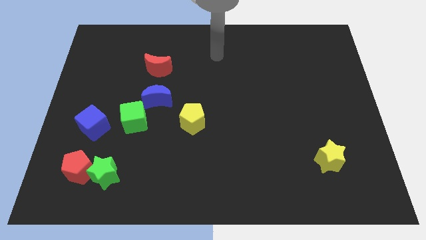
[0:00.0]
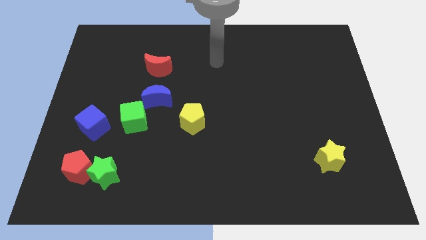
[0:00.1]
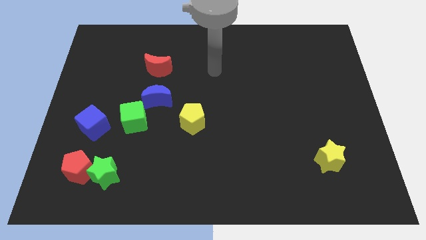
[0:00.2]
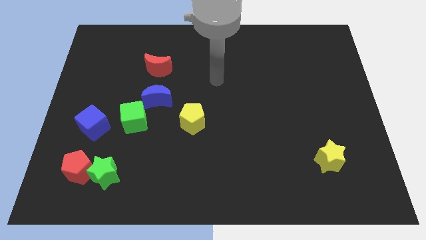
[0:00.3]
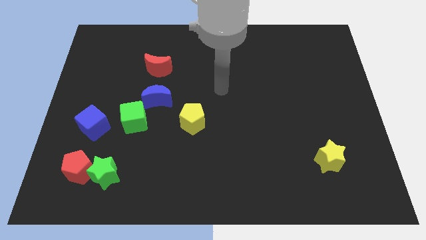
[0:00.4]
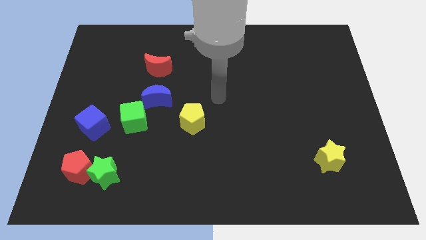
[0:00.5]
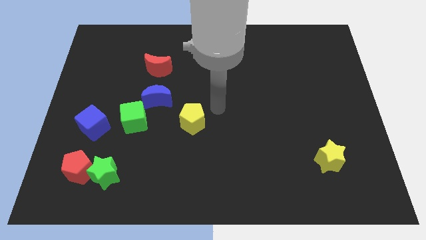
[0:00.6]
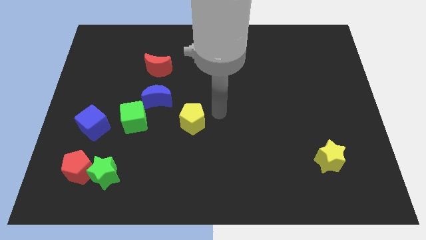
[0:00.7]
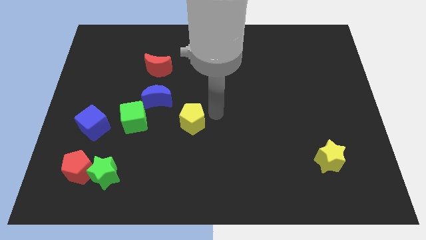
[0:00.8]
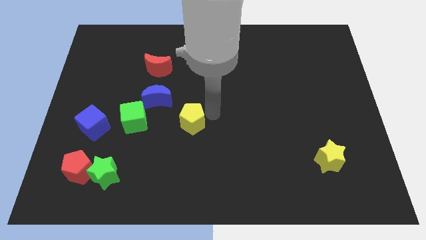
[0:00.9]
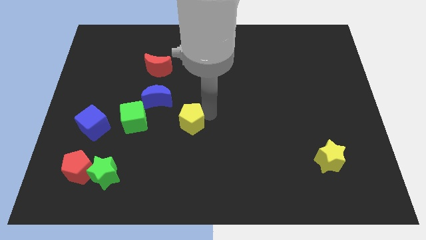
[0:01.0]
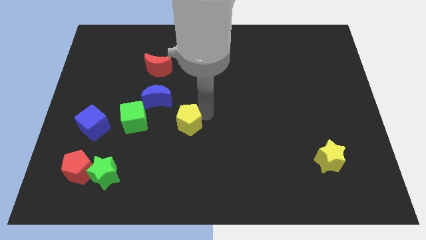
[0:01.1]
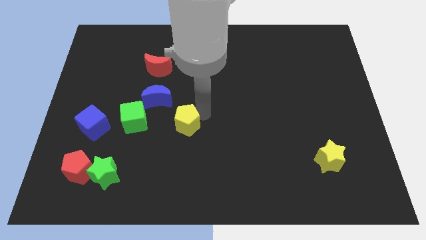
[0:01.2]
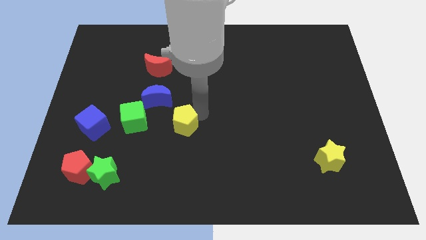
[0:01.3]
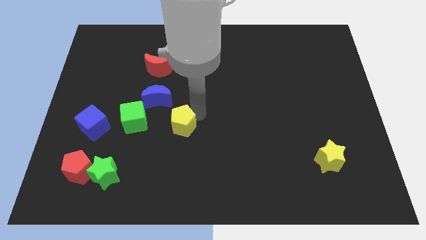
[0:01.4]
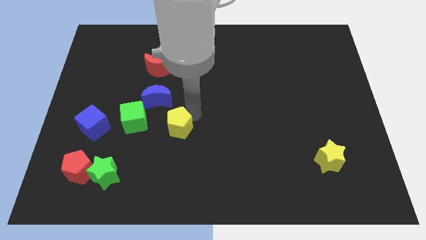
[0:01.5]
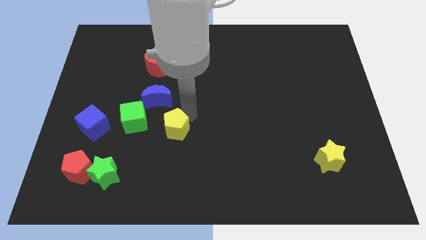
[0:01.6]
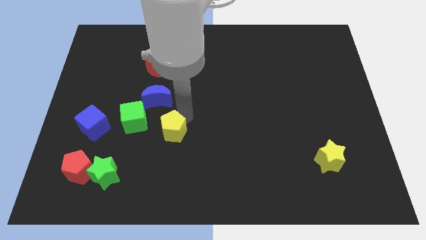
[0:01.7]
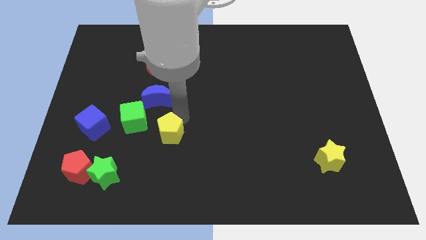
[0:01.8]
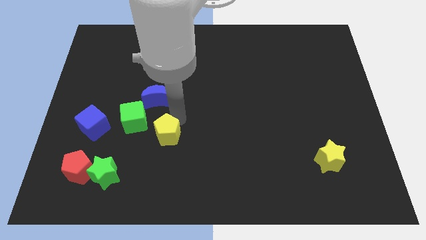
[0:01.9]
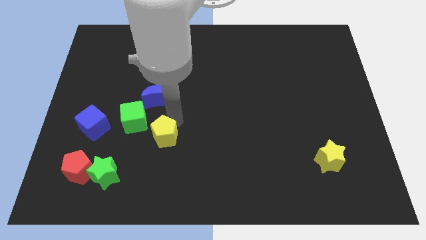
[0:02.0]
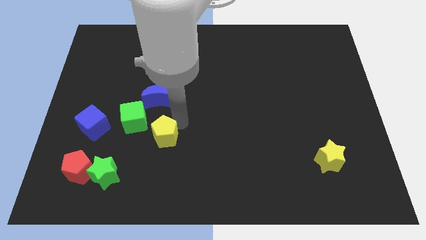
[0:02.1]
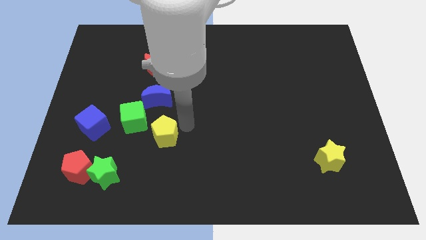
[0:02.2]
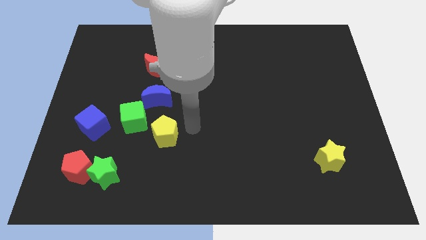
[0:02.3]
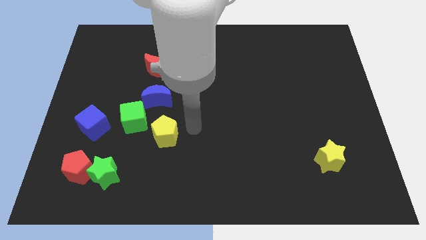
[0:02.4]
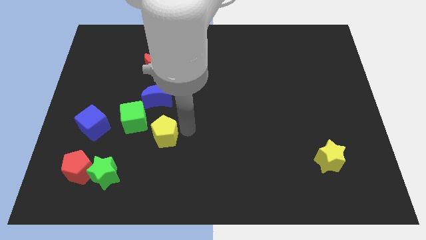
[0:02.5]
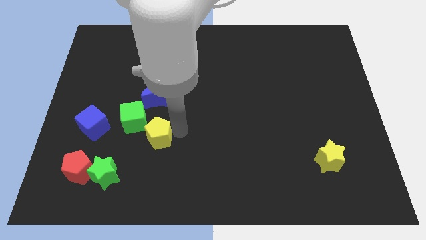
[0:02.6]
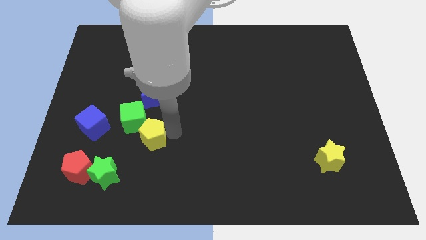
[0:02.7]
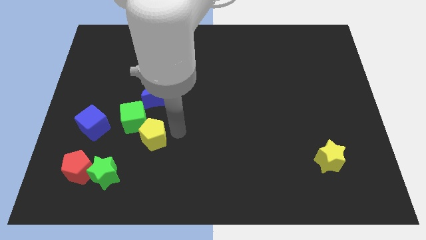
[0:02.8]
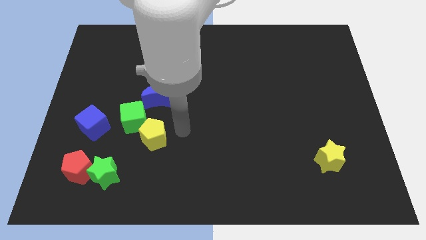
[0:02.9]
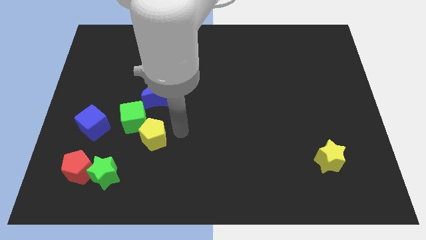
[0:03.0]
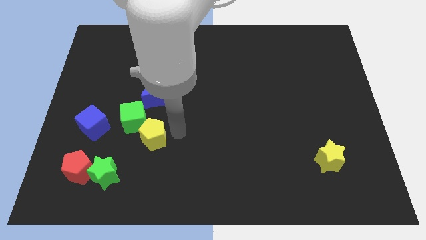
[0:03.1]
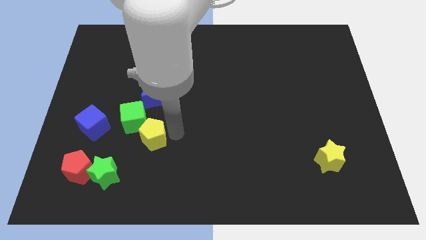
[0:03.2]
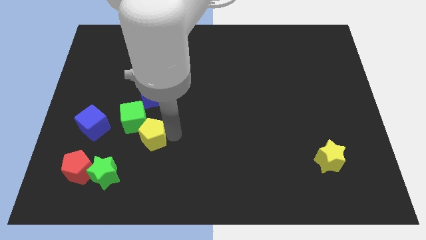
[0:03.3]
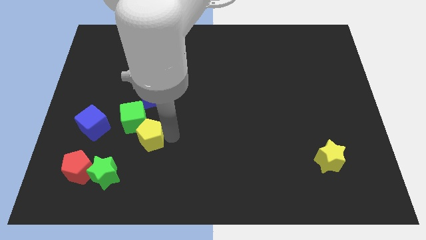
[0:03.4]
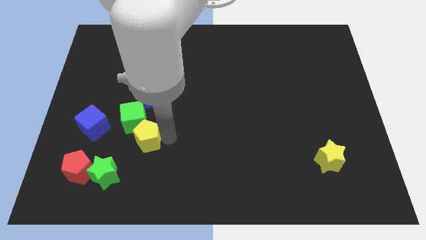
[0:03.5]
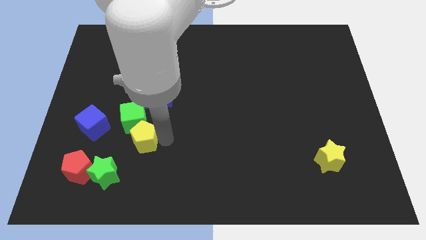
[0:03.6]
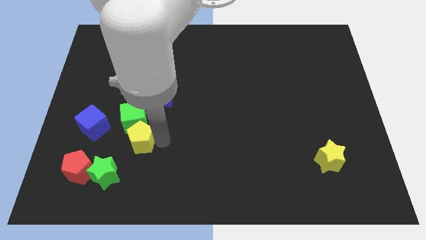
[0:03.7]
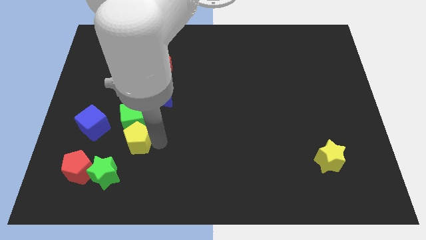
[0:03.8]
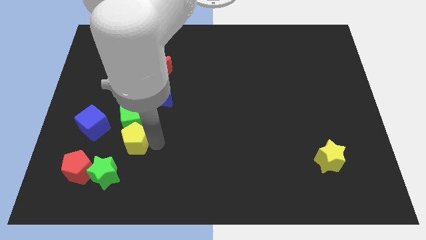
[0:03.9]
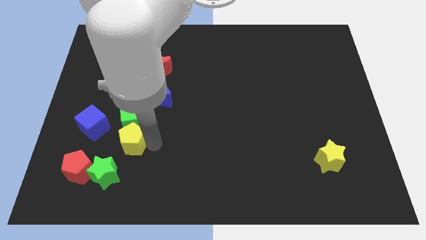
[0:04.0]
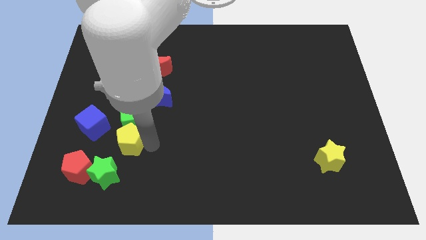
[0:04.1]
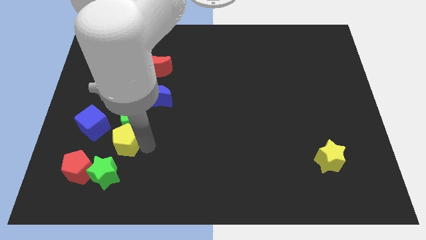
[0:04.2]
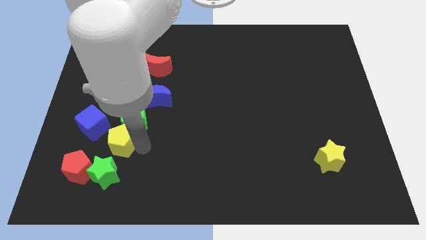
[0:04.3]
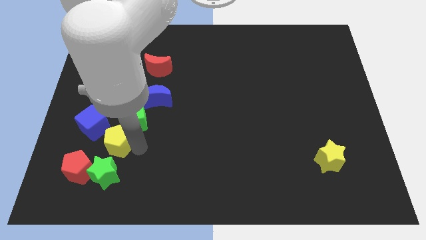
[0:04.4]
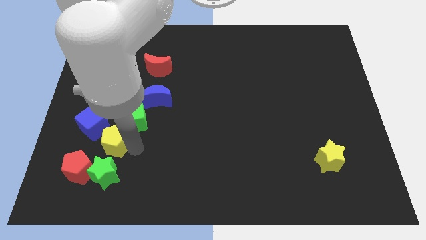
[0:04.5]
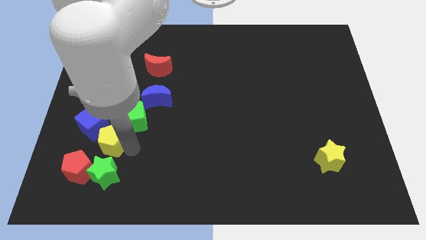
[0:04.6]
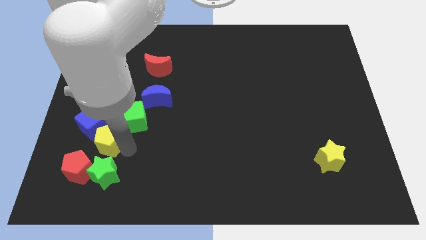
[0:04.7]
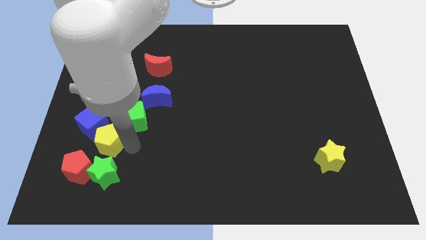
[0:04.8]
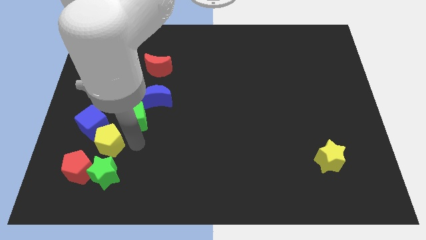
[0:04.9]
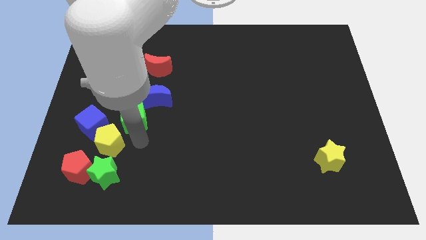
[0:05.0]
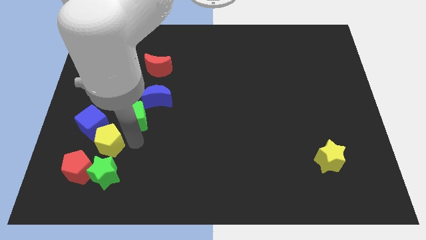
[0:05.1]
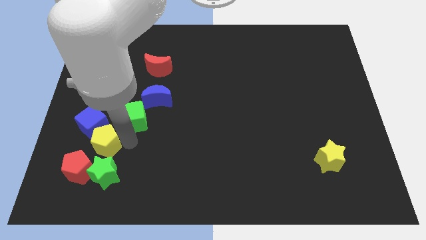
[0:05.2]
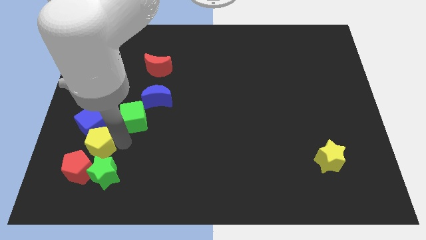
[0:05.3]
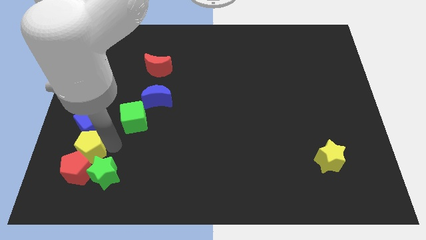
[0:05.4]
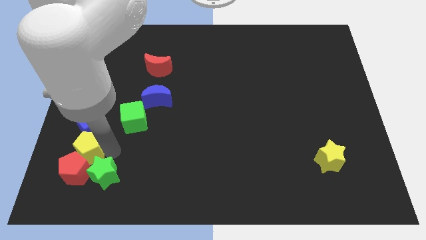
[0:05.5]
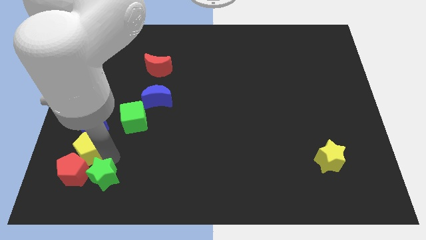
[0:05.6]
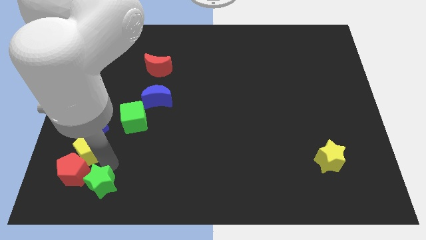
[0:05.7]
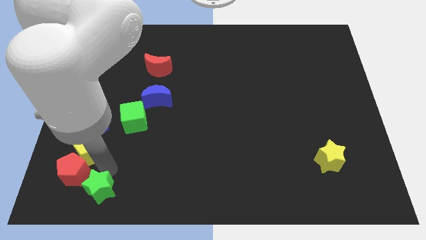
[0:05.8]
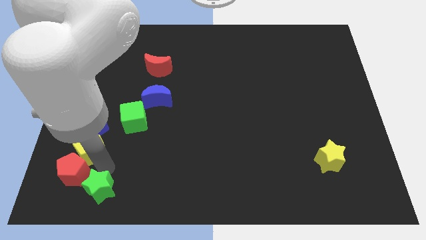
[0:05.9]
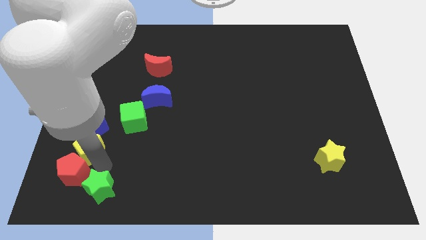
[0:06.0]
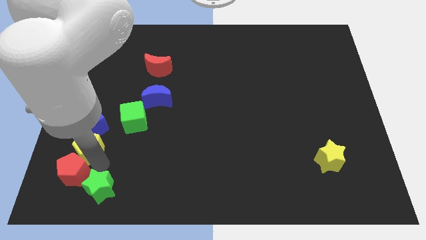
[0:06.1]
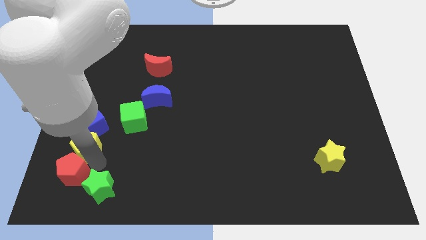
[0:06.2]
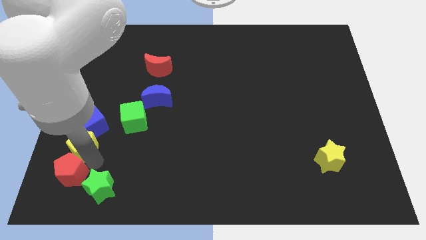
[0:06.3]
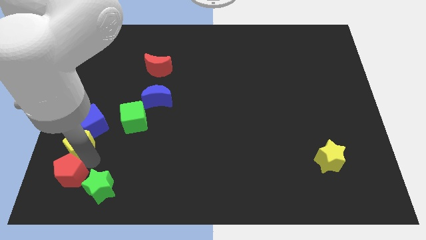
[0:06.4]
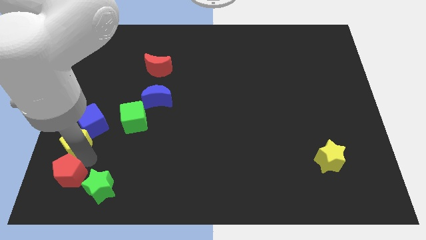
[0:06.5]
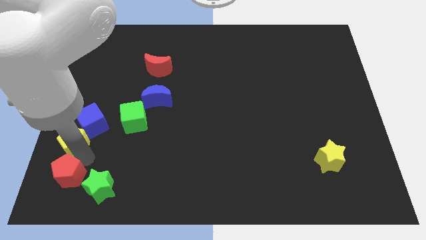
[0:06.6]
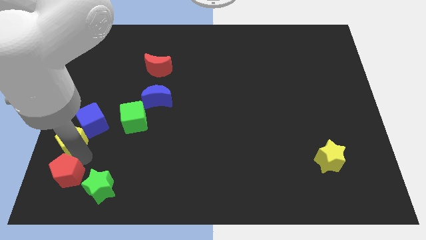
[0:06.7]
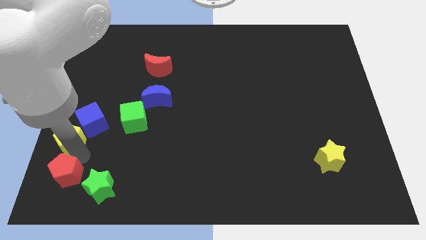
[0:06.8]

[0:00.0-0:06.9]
slide the yellow pentagon to the left side of the board

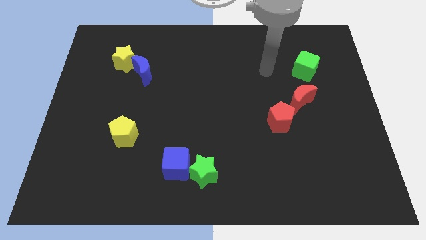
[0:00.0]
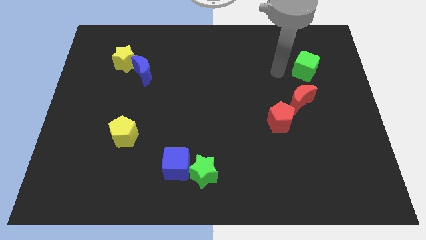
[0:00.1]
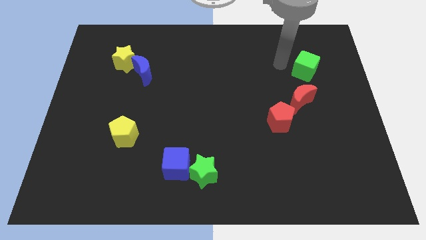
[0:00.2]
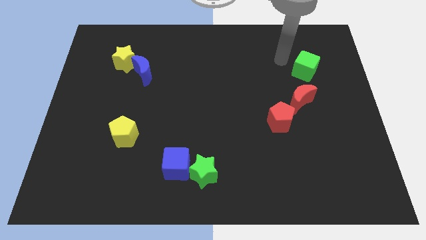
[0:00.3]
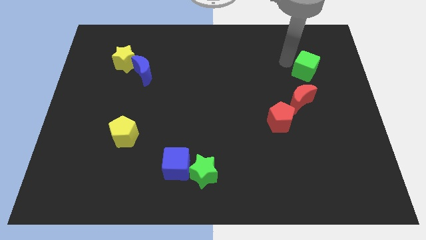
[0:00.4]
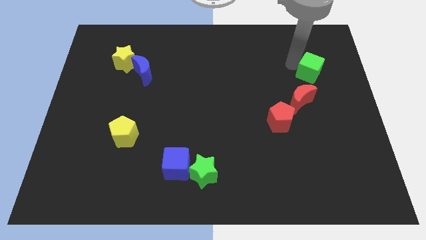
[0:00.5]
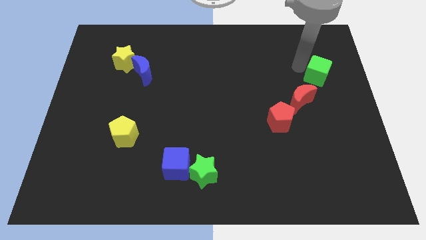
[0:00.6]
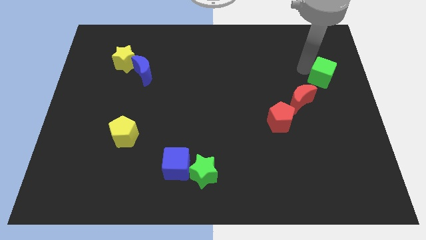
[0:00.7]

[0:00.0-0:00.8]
push the green cube to the right side
